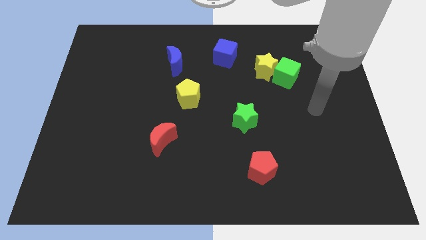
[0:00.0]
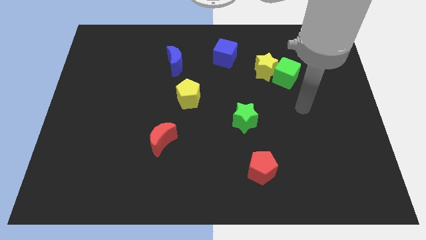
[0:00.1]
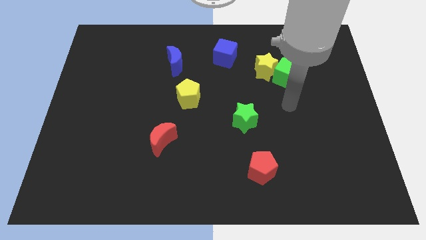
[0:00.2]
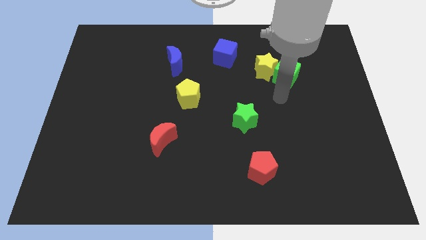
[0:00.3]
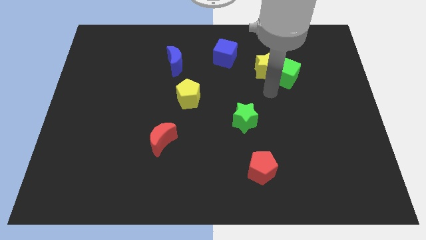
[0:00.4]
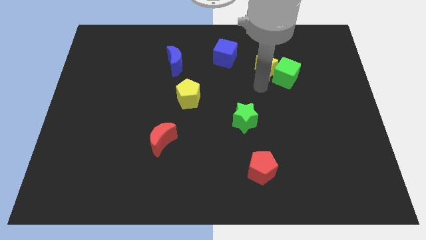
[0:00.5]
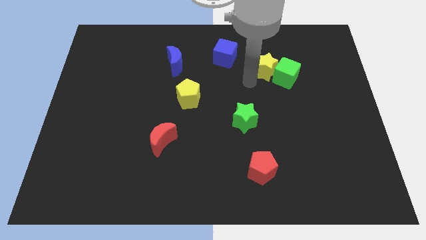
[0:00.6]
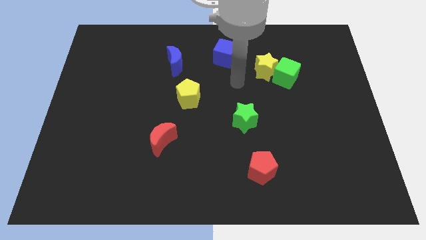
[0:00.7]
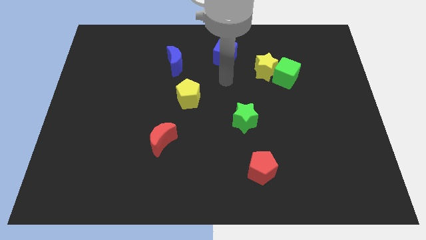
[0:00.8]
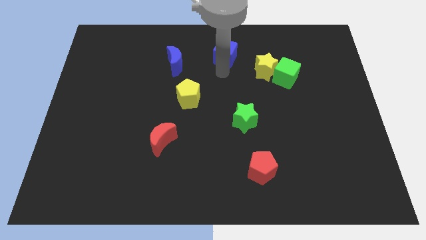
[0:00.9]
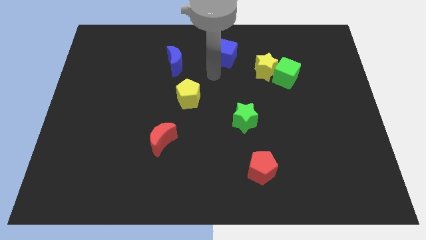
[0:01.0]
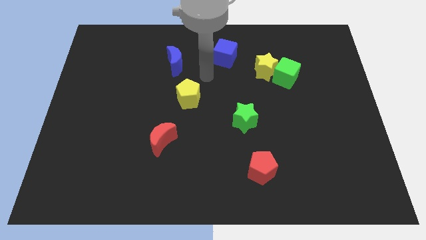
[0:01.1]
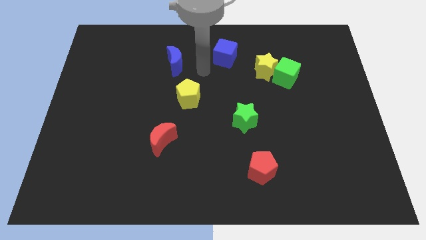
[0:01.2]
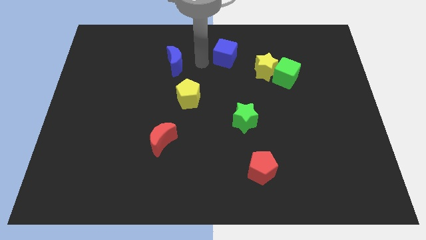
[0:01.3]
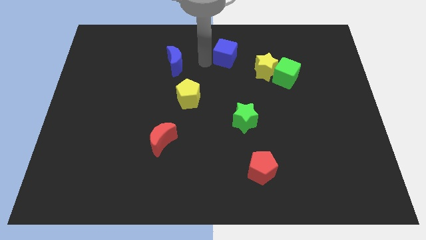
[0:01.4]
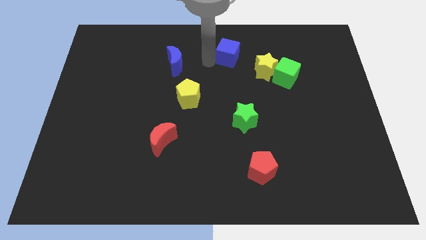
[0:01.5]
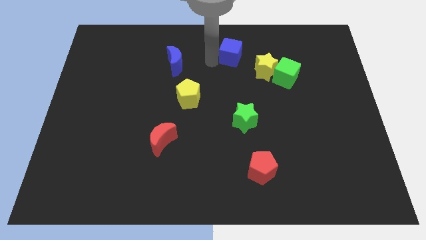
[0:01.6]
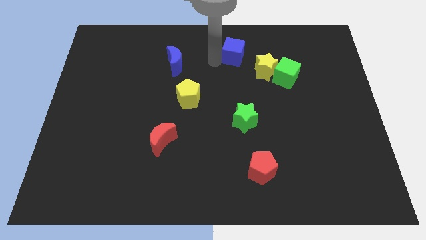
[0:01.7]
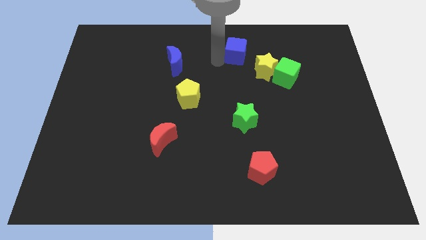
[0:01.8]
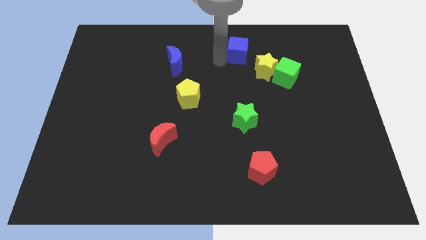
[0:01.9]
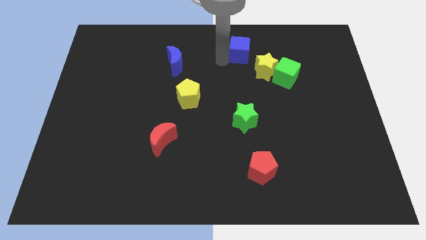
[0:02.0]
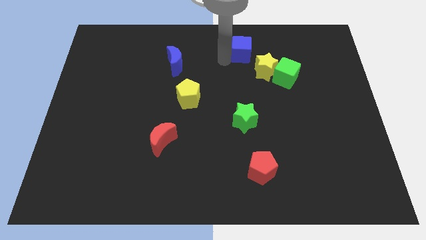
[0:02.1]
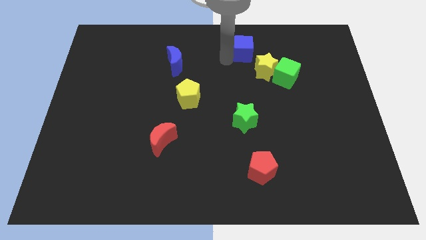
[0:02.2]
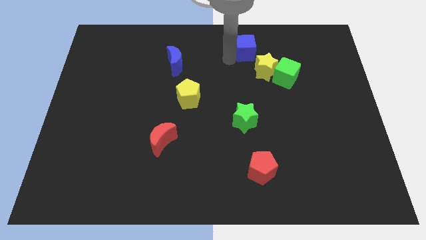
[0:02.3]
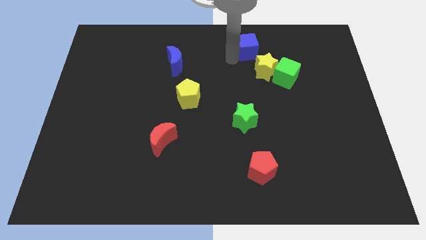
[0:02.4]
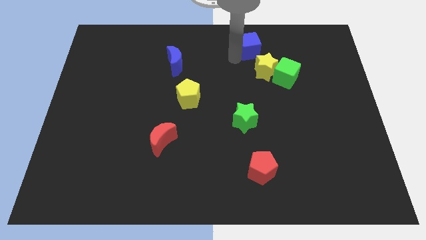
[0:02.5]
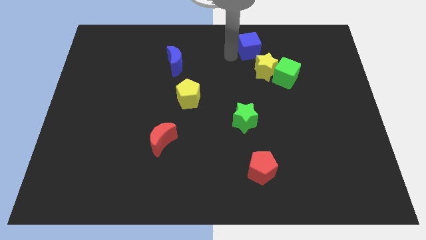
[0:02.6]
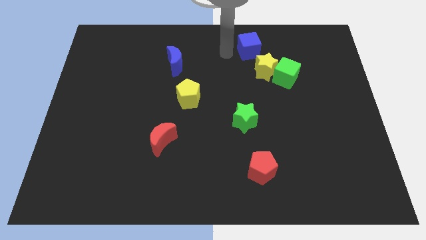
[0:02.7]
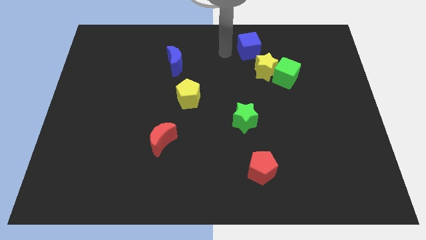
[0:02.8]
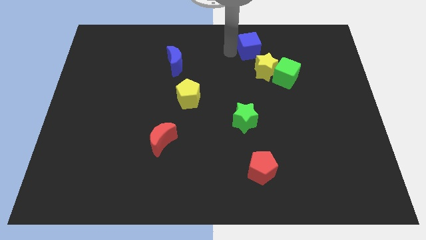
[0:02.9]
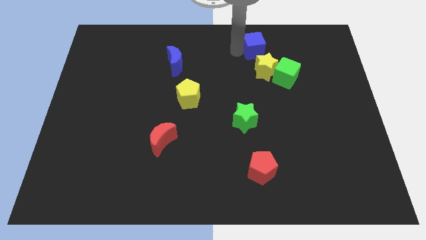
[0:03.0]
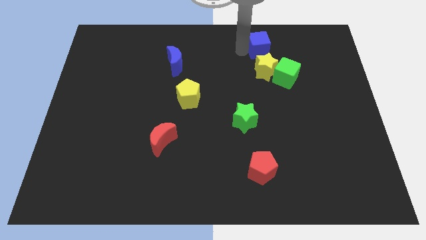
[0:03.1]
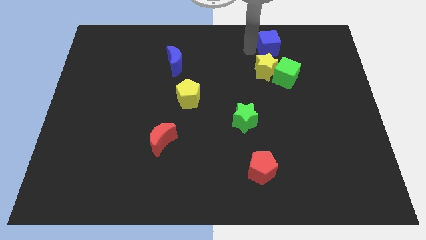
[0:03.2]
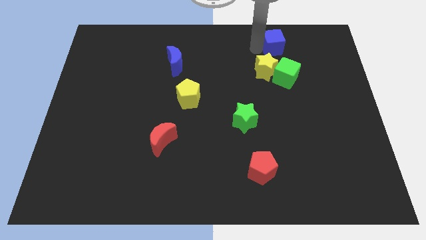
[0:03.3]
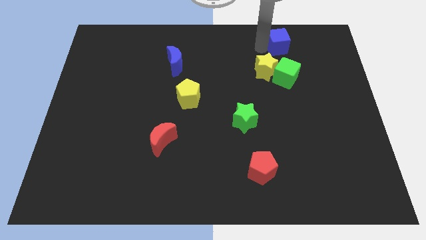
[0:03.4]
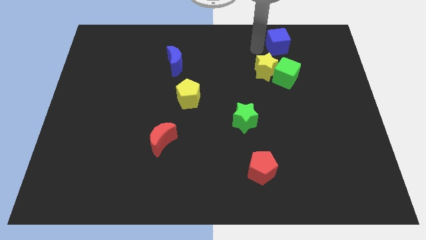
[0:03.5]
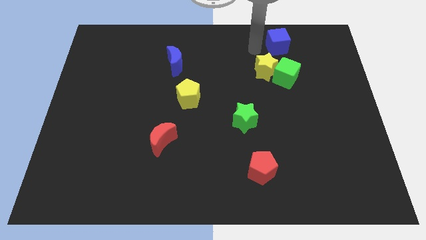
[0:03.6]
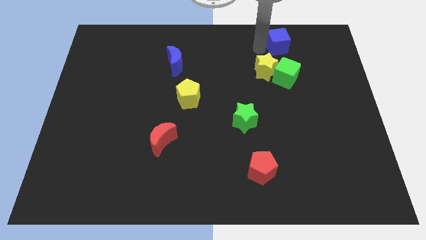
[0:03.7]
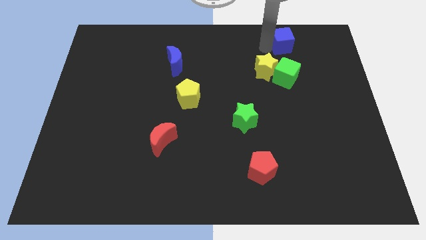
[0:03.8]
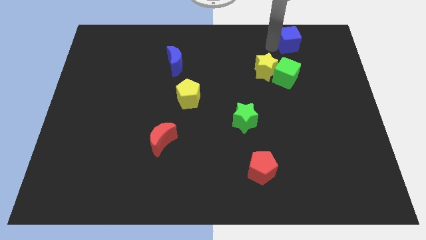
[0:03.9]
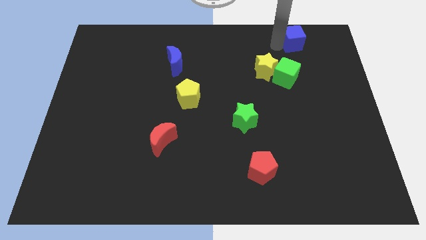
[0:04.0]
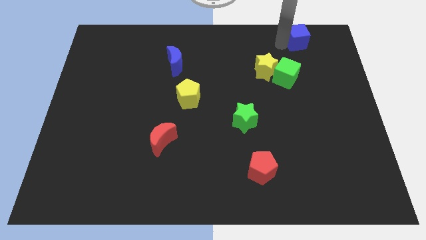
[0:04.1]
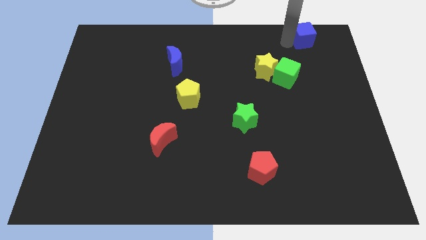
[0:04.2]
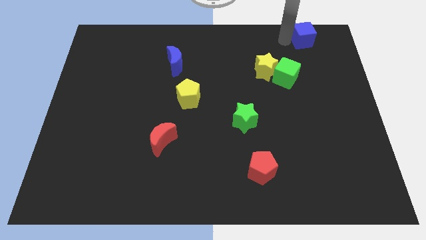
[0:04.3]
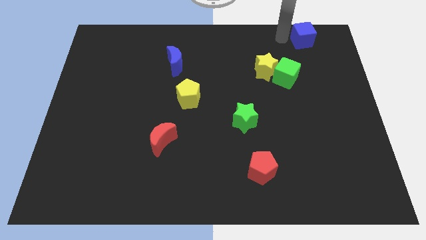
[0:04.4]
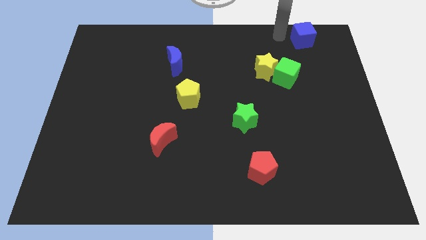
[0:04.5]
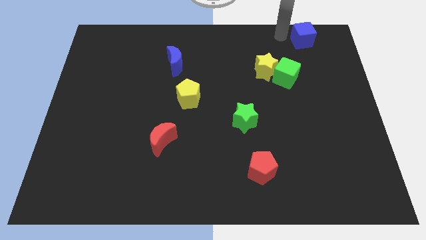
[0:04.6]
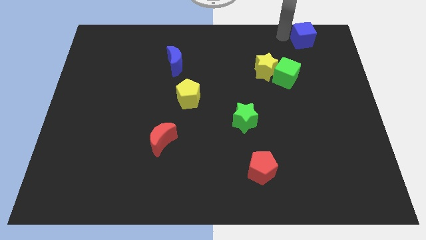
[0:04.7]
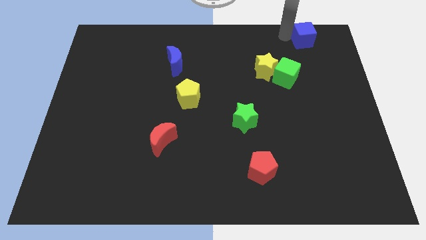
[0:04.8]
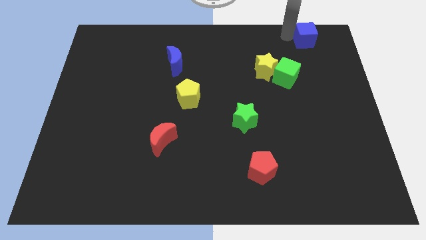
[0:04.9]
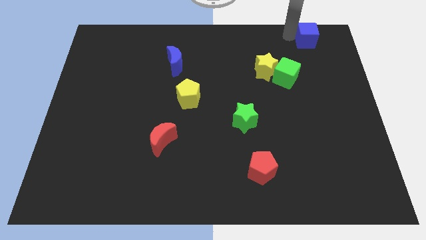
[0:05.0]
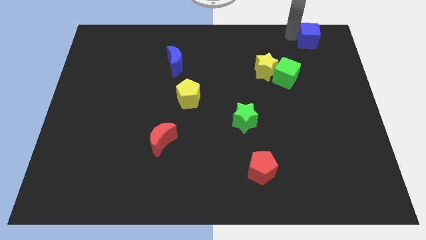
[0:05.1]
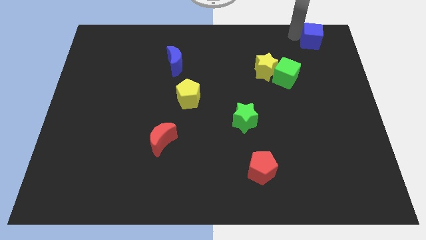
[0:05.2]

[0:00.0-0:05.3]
push the blue cube to the top right

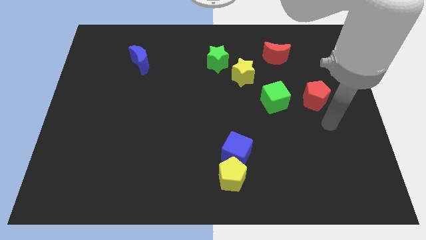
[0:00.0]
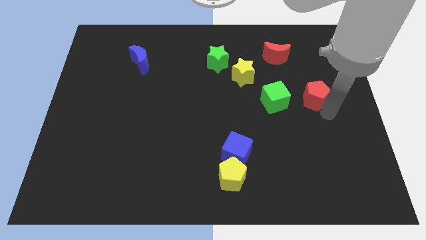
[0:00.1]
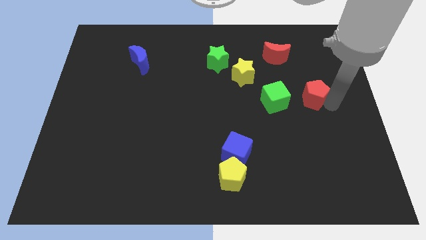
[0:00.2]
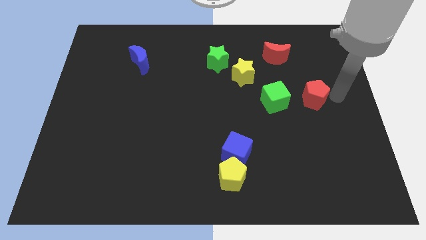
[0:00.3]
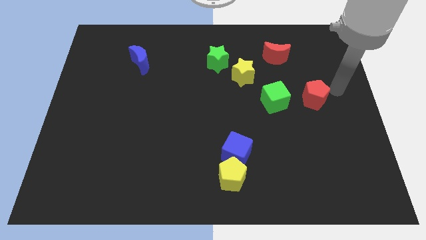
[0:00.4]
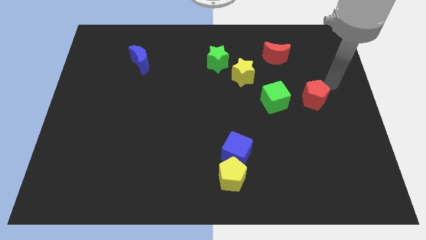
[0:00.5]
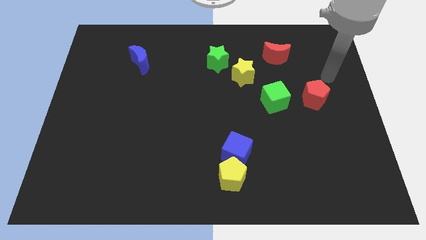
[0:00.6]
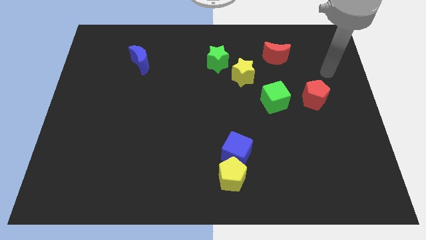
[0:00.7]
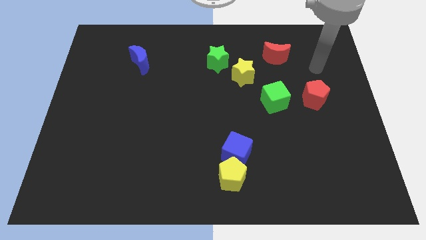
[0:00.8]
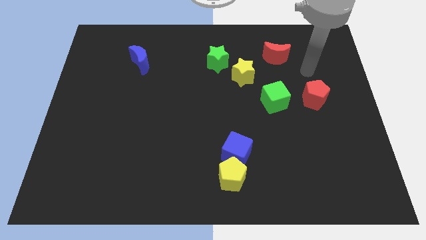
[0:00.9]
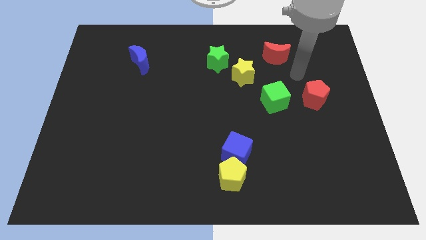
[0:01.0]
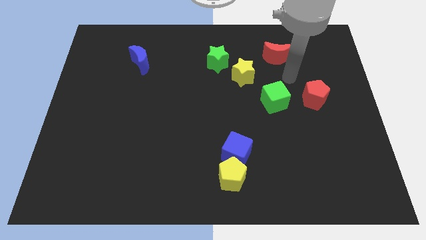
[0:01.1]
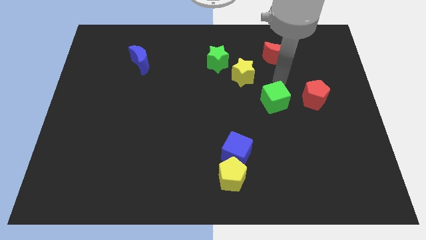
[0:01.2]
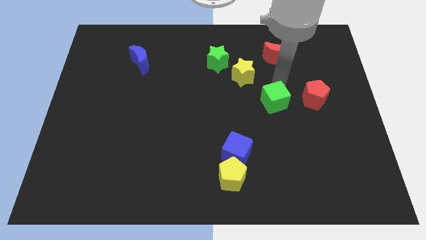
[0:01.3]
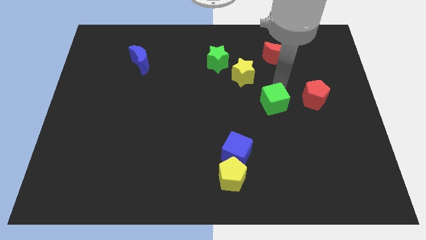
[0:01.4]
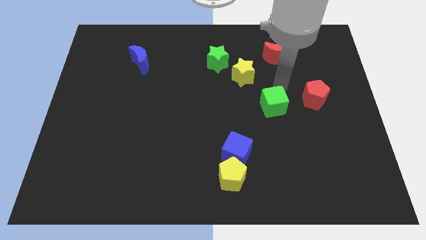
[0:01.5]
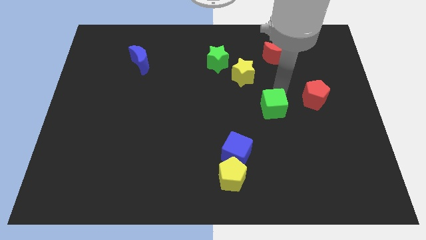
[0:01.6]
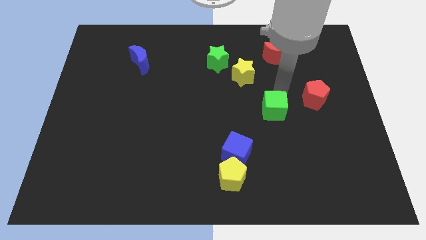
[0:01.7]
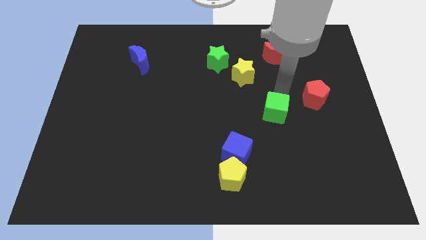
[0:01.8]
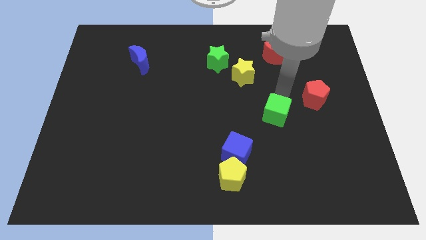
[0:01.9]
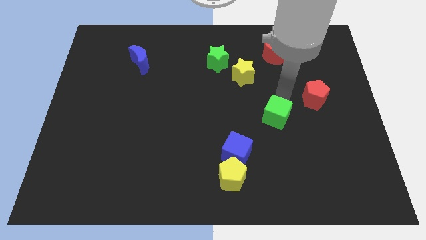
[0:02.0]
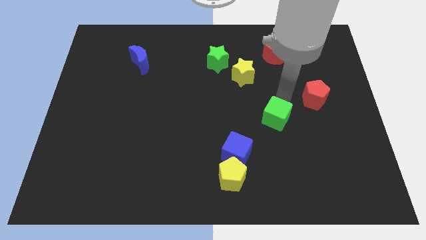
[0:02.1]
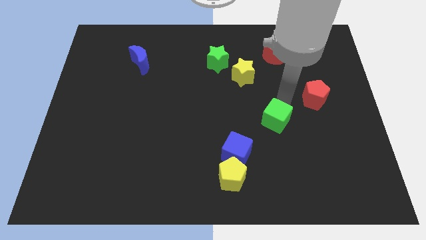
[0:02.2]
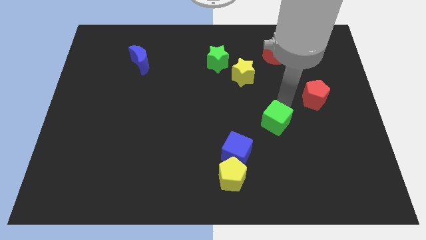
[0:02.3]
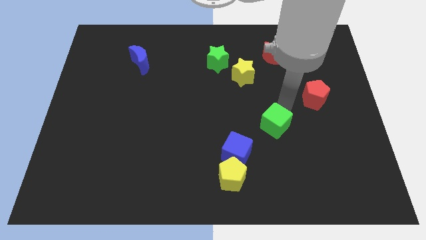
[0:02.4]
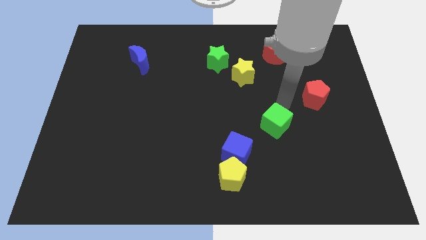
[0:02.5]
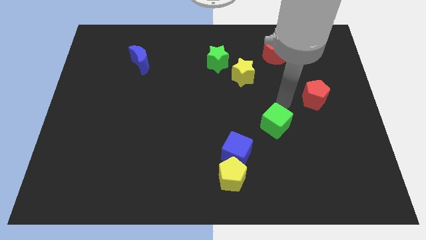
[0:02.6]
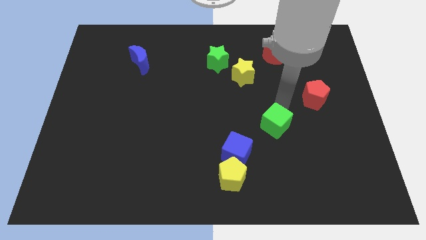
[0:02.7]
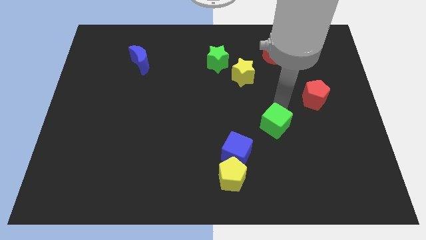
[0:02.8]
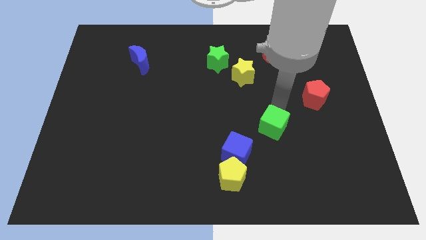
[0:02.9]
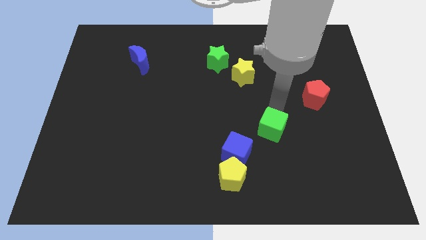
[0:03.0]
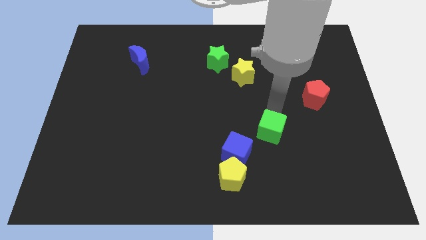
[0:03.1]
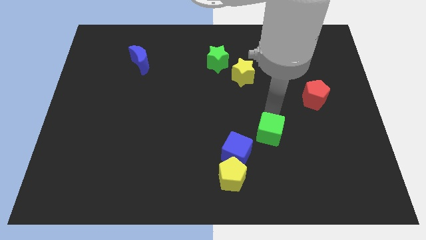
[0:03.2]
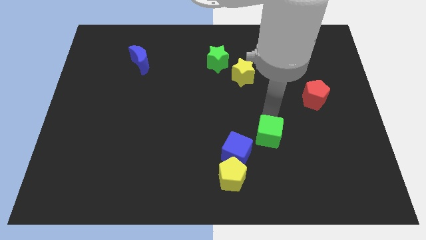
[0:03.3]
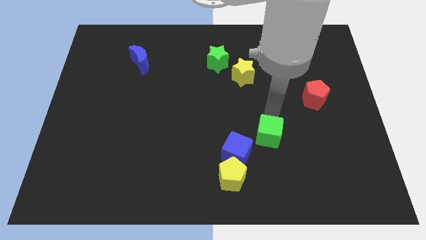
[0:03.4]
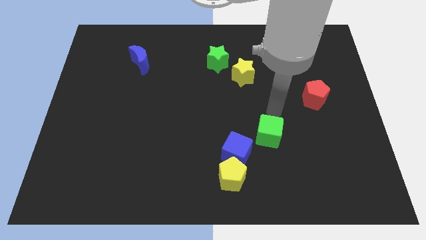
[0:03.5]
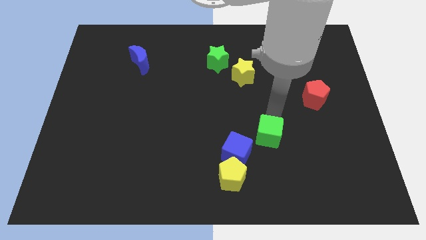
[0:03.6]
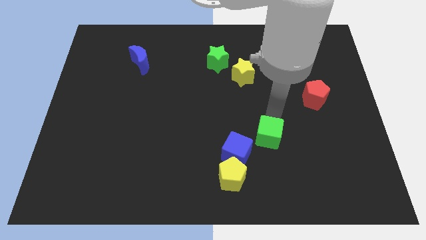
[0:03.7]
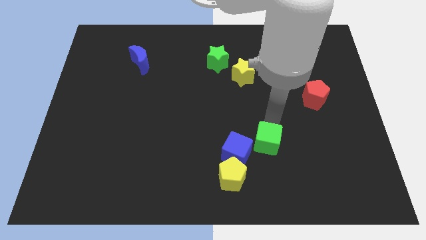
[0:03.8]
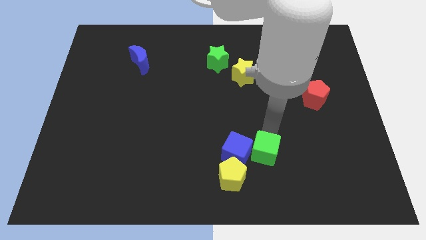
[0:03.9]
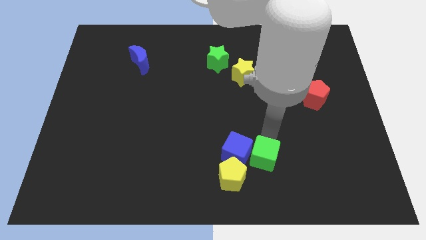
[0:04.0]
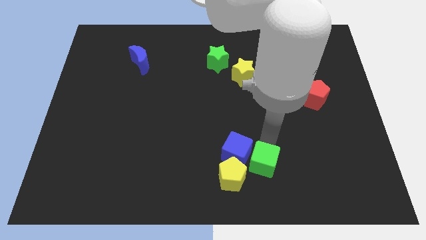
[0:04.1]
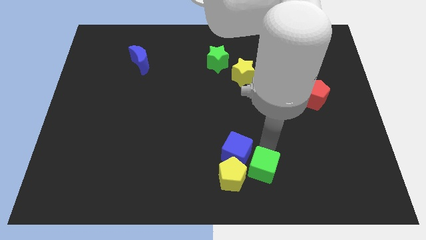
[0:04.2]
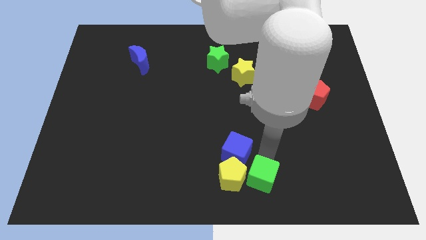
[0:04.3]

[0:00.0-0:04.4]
slide the green cube to the bottom side
